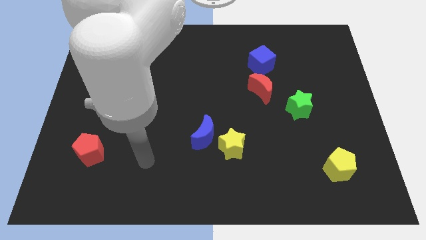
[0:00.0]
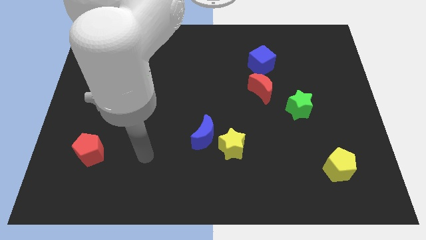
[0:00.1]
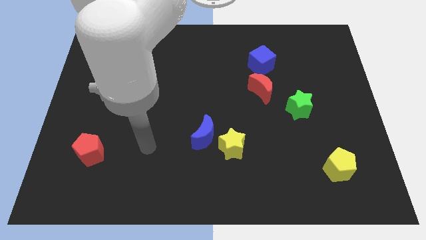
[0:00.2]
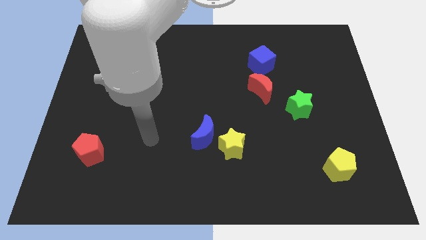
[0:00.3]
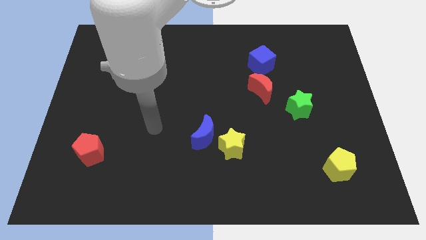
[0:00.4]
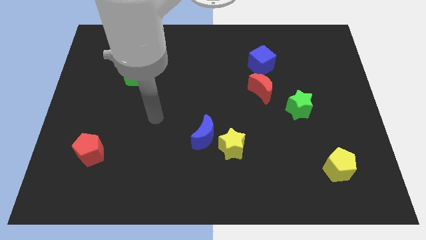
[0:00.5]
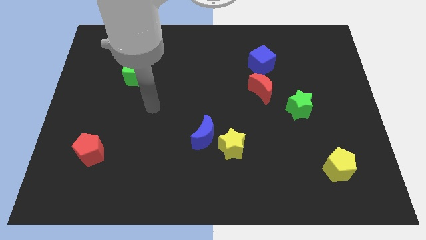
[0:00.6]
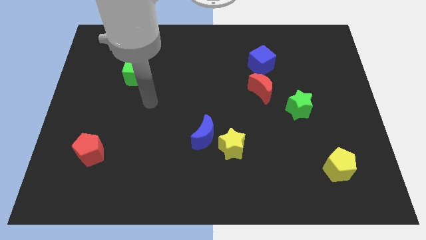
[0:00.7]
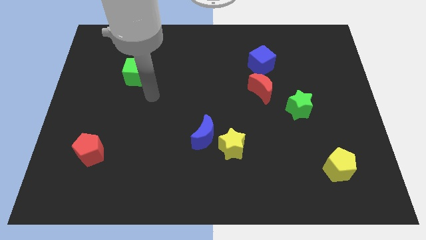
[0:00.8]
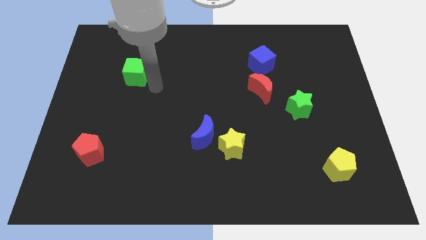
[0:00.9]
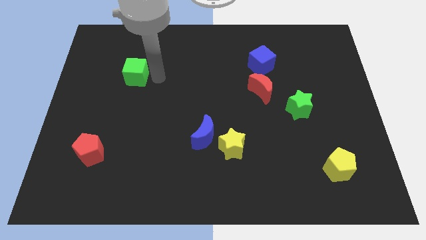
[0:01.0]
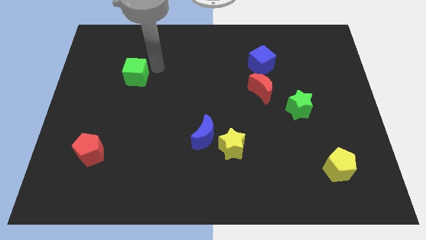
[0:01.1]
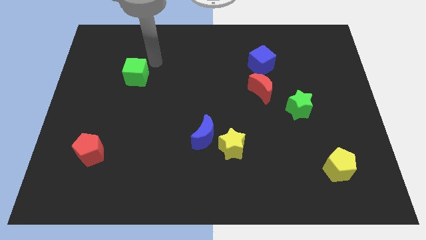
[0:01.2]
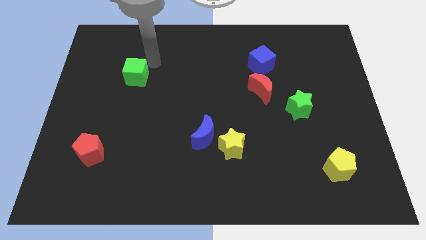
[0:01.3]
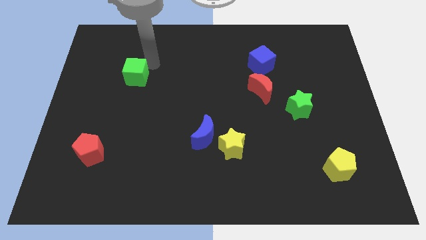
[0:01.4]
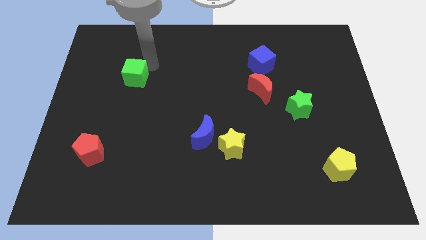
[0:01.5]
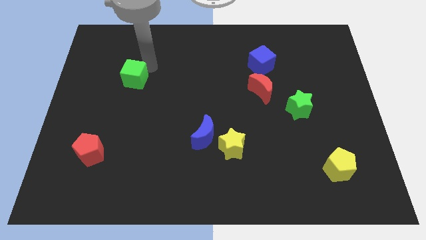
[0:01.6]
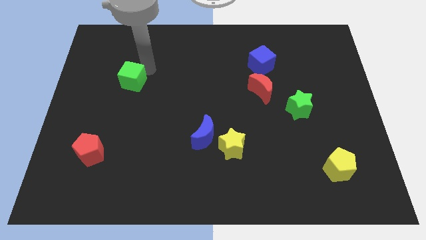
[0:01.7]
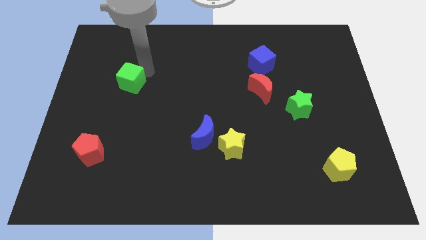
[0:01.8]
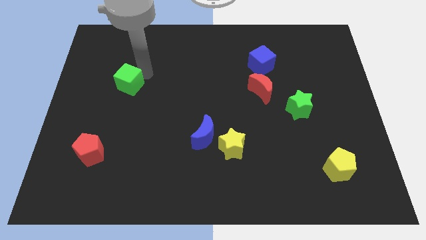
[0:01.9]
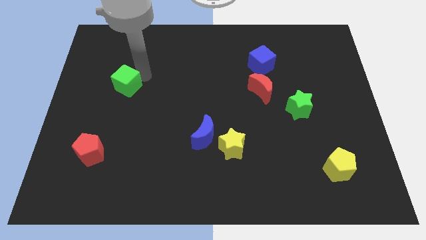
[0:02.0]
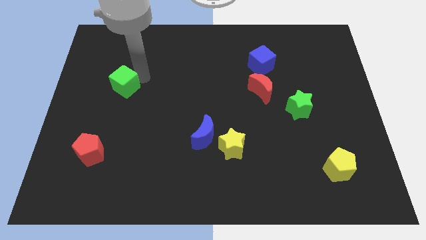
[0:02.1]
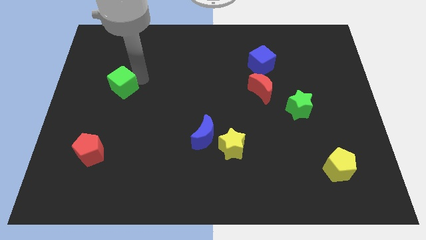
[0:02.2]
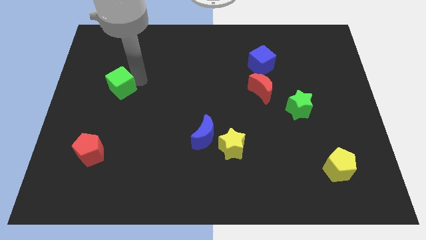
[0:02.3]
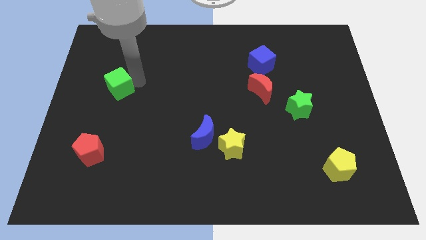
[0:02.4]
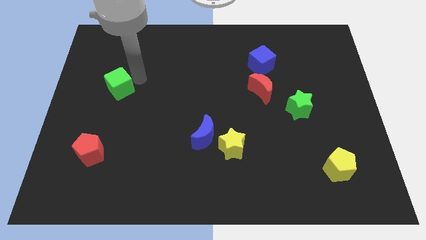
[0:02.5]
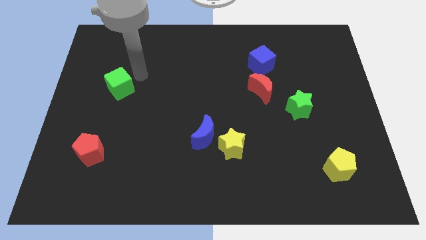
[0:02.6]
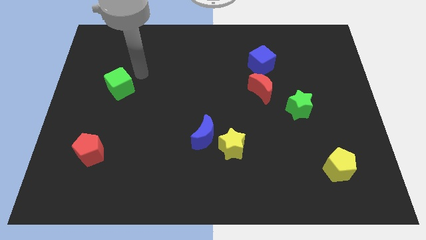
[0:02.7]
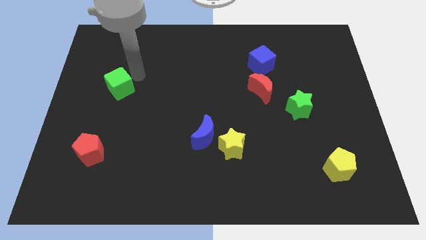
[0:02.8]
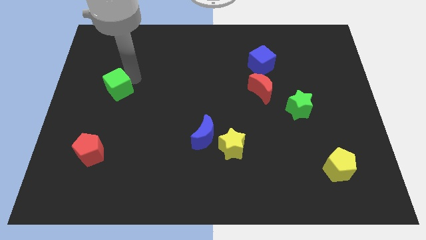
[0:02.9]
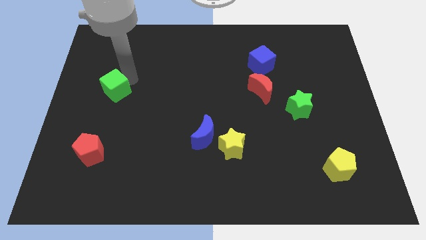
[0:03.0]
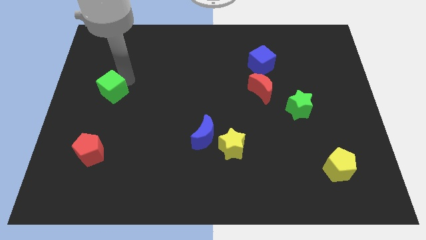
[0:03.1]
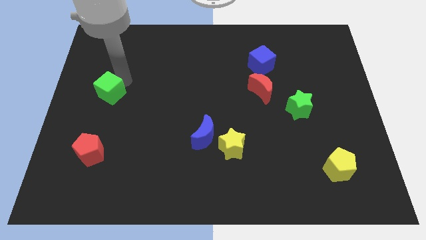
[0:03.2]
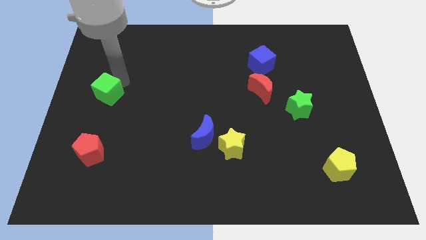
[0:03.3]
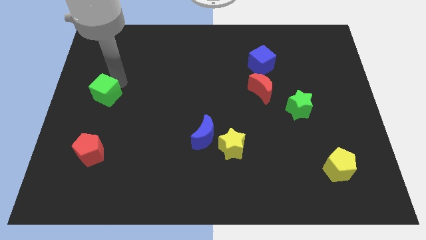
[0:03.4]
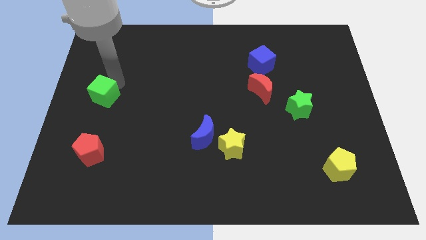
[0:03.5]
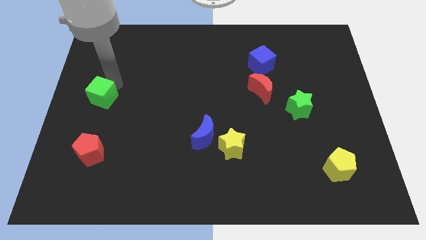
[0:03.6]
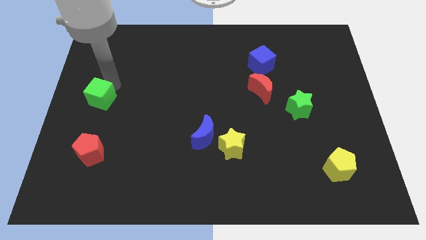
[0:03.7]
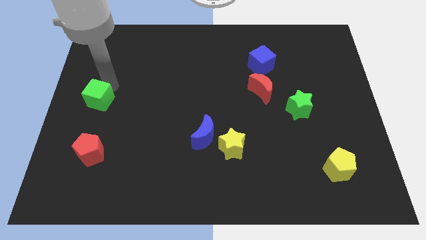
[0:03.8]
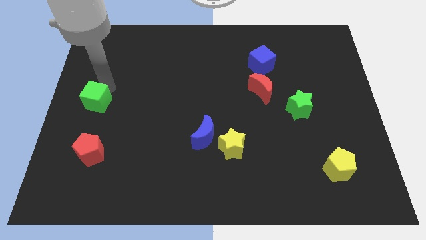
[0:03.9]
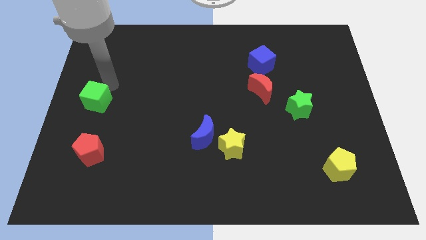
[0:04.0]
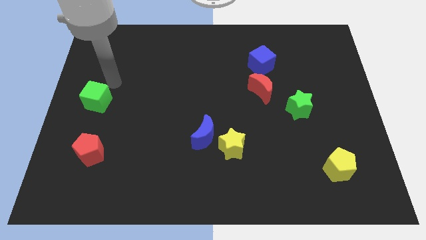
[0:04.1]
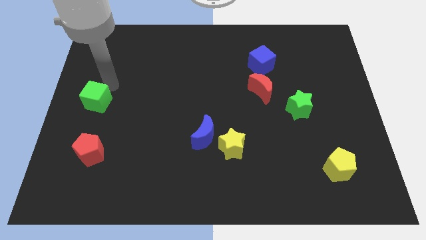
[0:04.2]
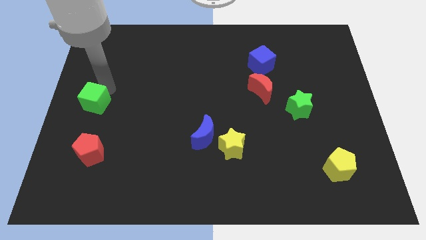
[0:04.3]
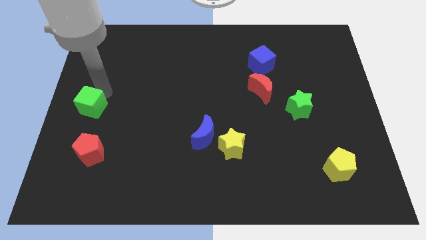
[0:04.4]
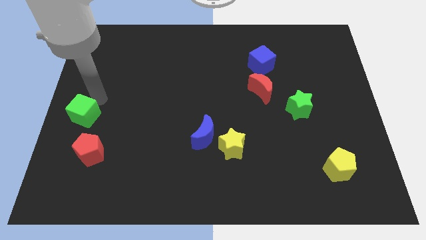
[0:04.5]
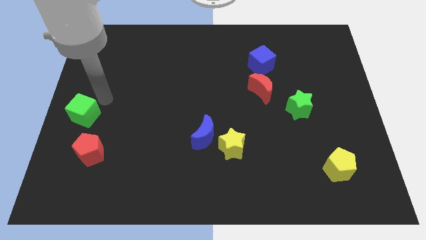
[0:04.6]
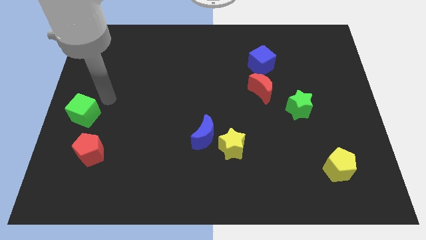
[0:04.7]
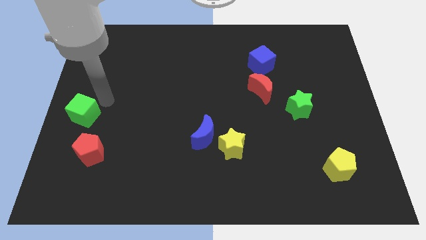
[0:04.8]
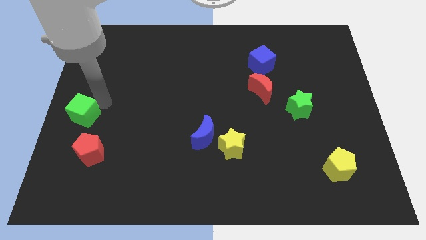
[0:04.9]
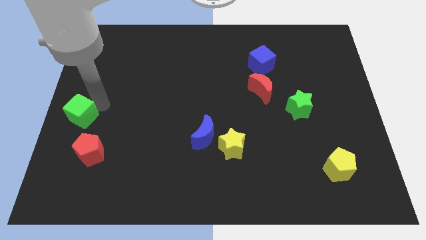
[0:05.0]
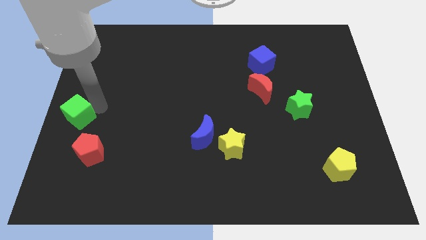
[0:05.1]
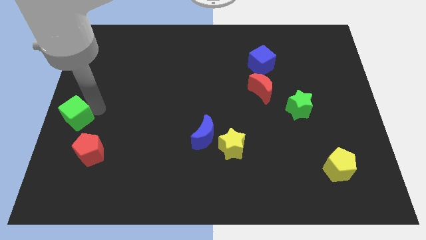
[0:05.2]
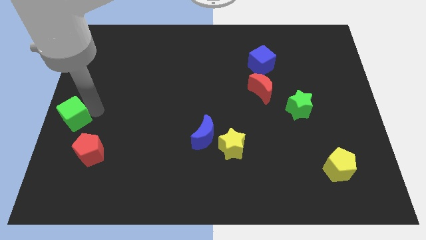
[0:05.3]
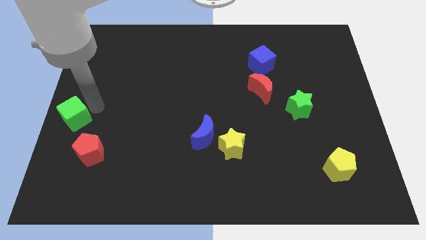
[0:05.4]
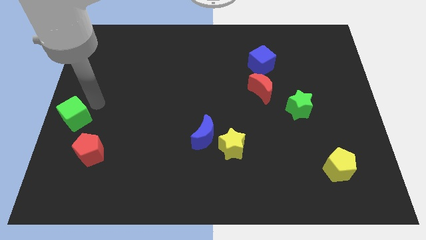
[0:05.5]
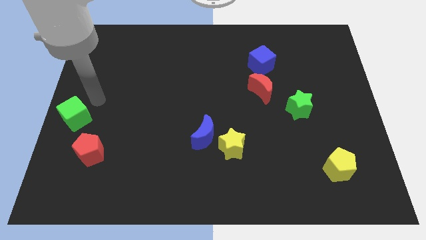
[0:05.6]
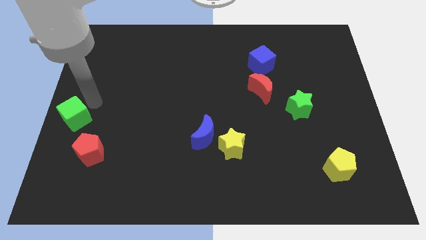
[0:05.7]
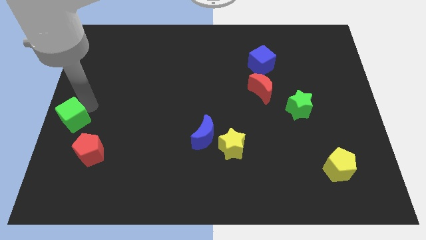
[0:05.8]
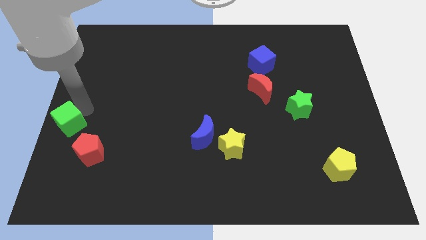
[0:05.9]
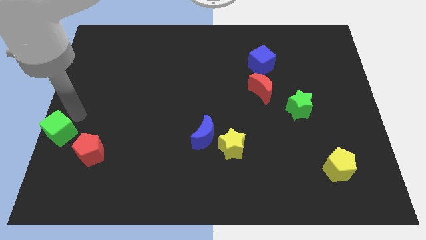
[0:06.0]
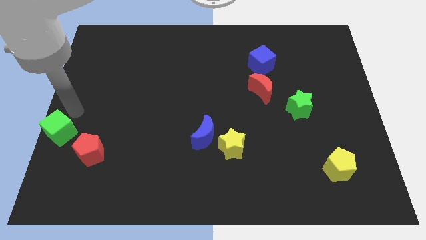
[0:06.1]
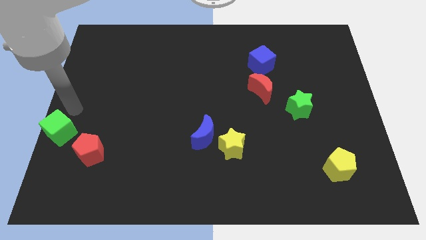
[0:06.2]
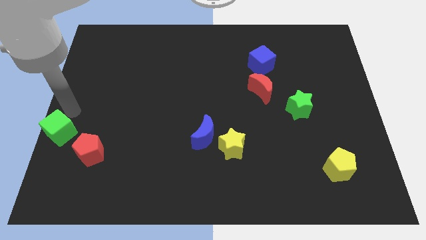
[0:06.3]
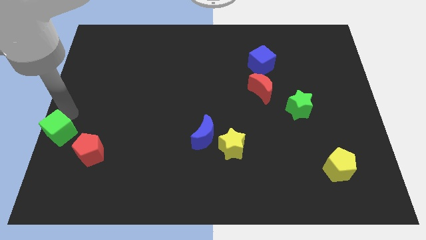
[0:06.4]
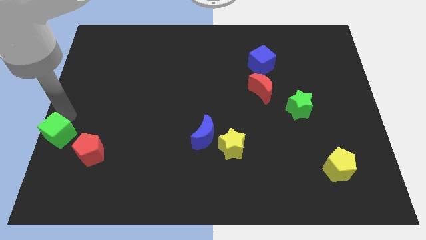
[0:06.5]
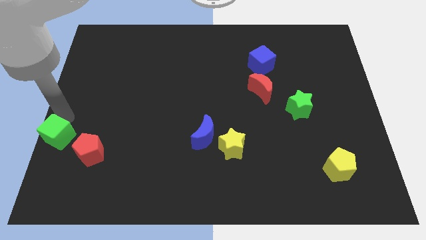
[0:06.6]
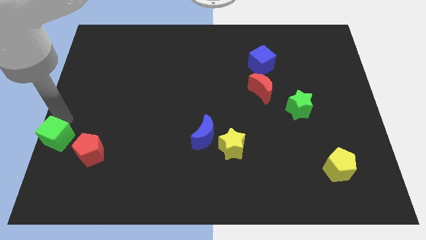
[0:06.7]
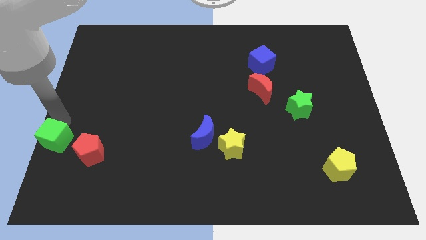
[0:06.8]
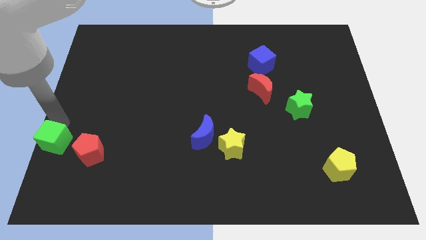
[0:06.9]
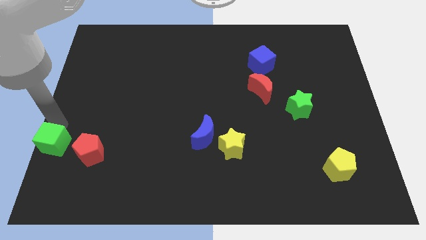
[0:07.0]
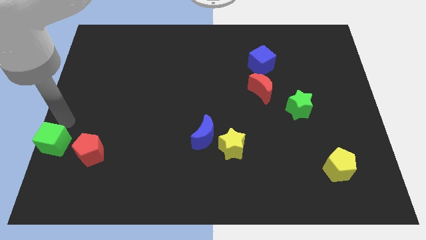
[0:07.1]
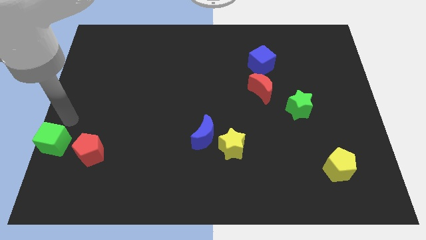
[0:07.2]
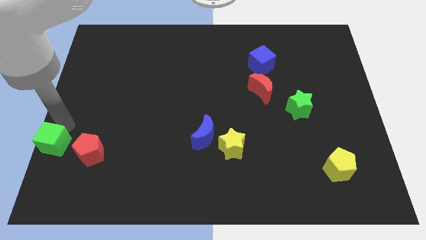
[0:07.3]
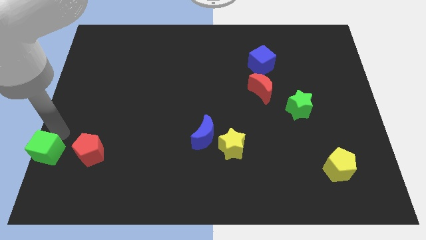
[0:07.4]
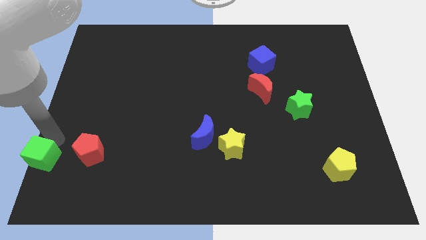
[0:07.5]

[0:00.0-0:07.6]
slide the green cube to the bottom left
